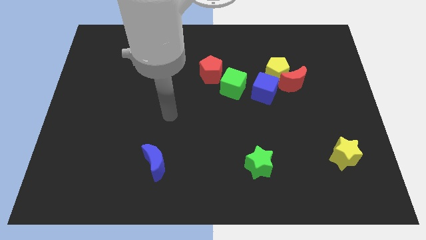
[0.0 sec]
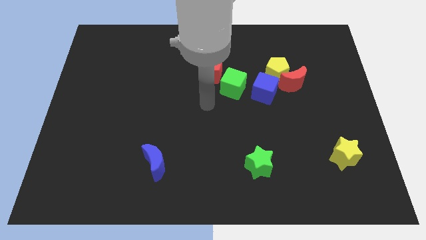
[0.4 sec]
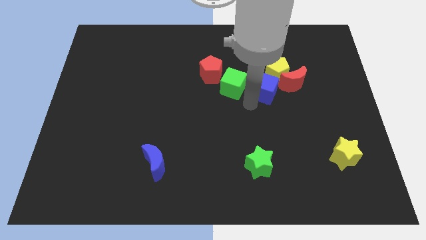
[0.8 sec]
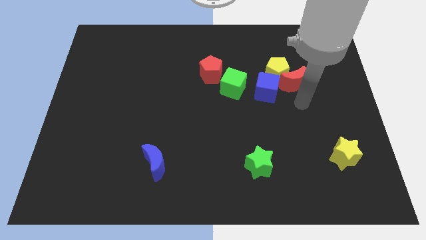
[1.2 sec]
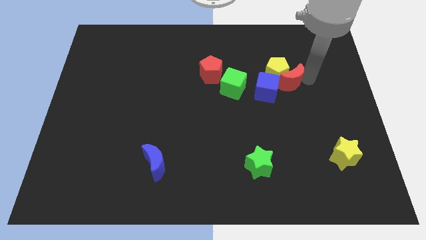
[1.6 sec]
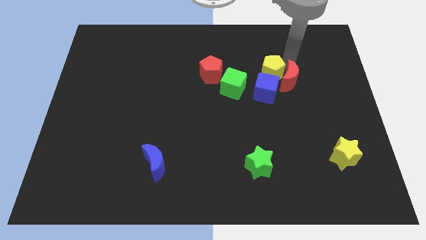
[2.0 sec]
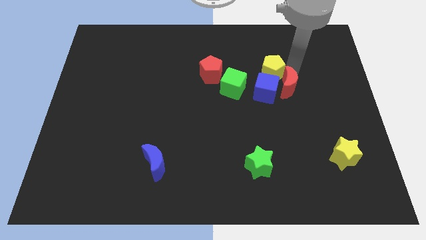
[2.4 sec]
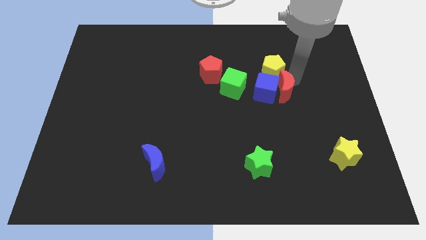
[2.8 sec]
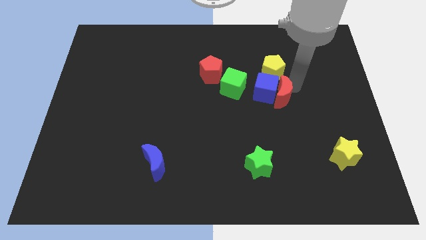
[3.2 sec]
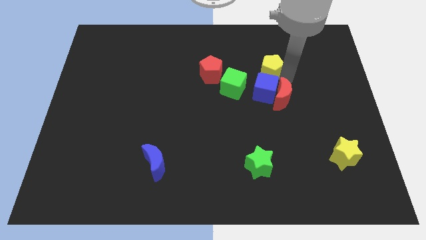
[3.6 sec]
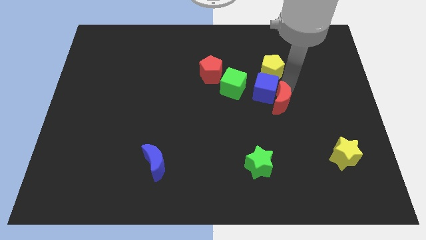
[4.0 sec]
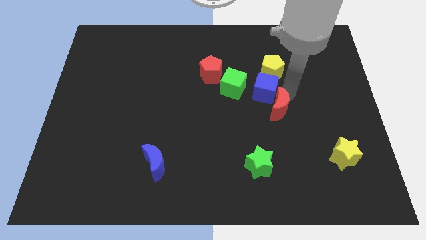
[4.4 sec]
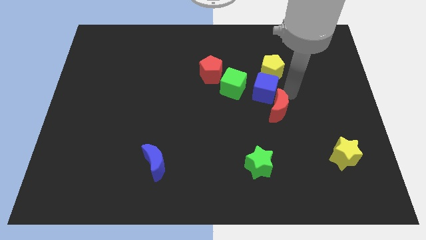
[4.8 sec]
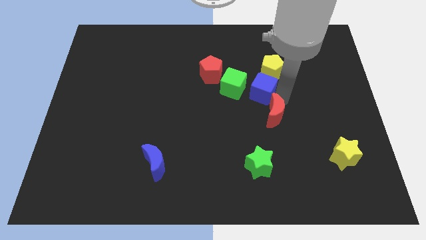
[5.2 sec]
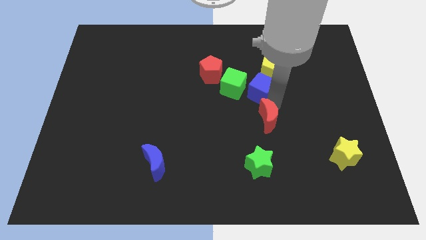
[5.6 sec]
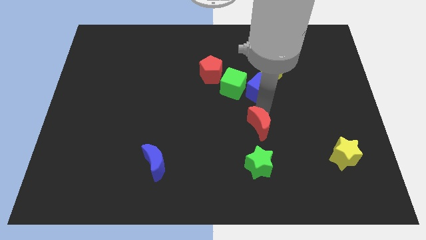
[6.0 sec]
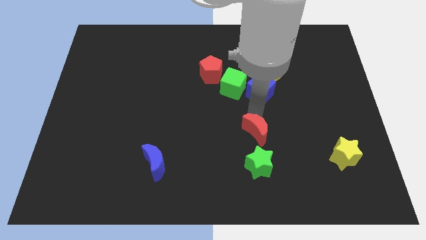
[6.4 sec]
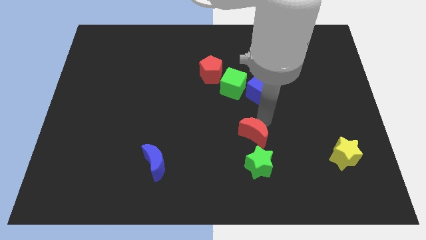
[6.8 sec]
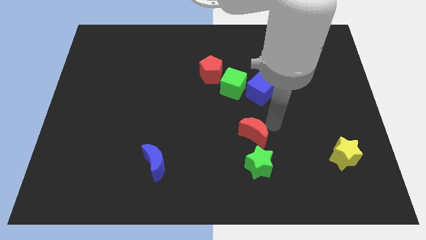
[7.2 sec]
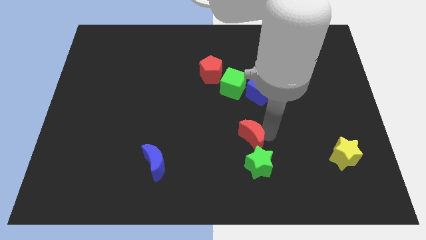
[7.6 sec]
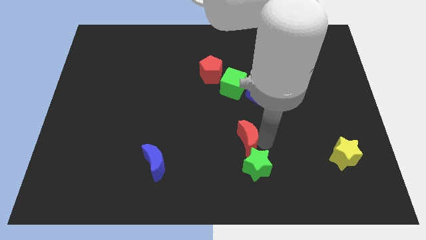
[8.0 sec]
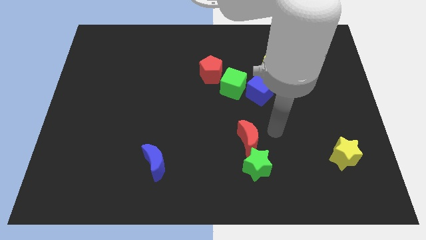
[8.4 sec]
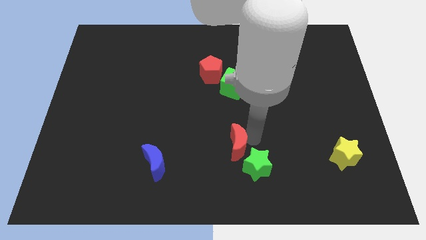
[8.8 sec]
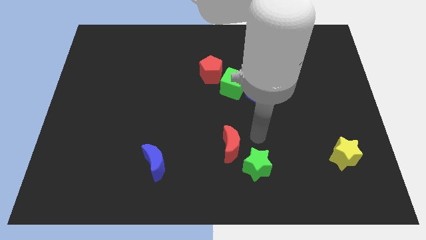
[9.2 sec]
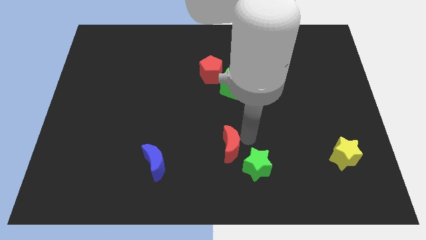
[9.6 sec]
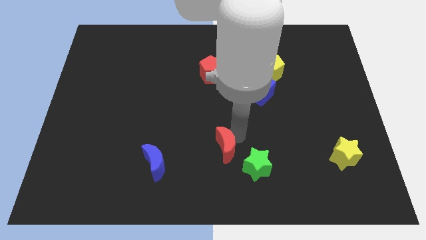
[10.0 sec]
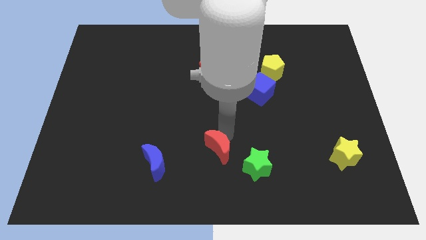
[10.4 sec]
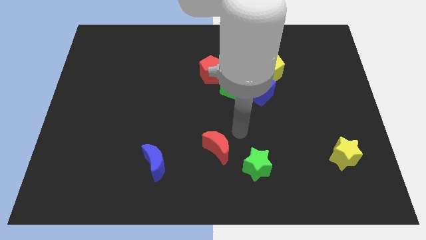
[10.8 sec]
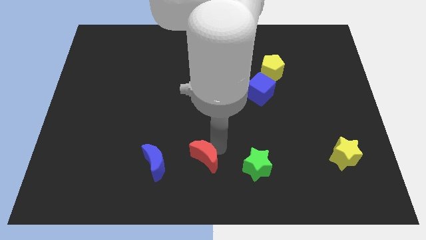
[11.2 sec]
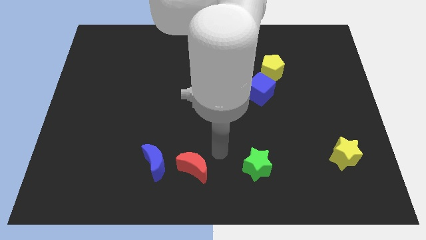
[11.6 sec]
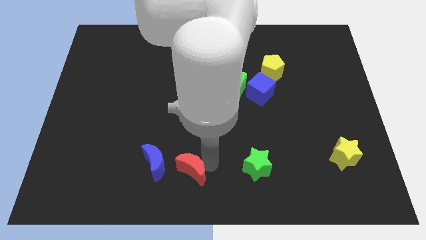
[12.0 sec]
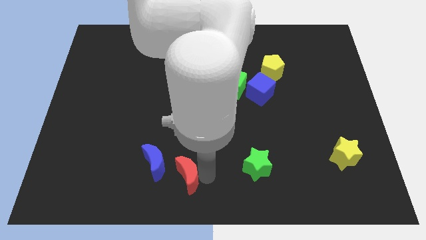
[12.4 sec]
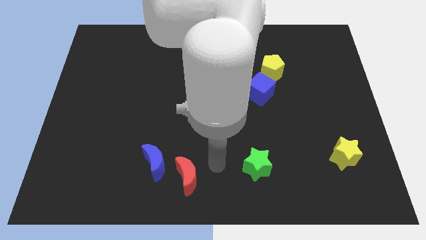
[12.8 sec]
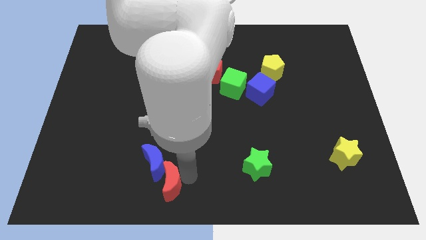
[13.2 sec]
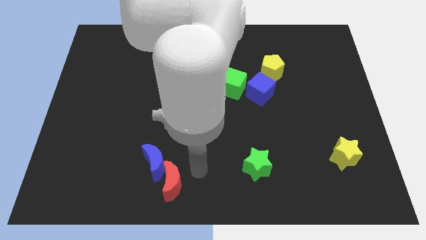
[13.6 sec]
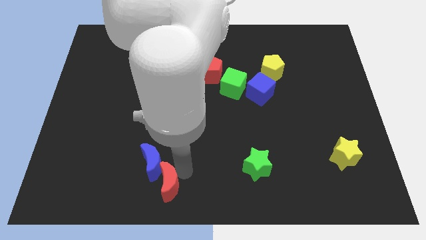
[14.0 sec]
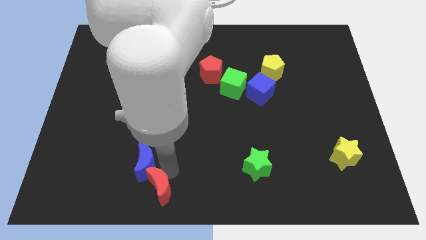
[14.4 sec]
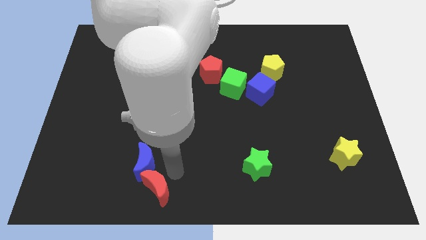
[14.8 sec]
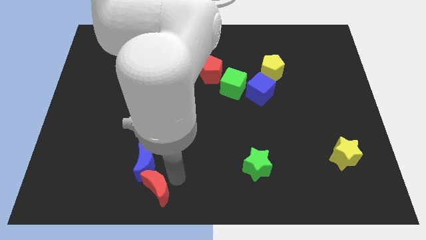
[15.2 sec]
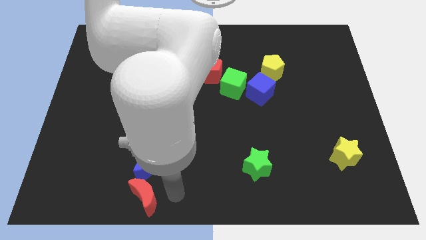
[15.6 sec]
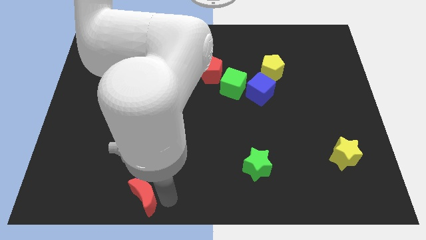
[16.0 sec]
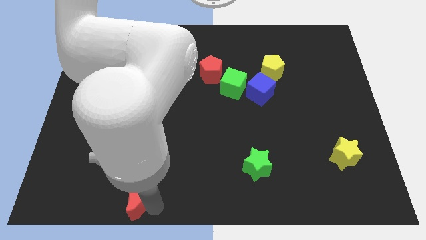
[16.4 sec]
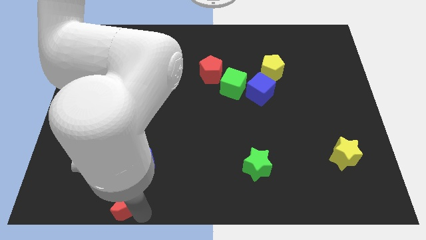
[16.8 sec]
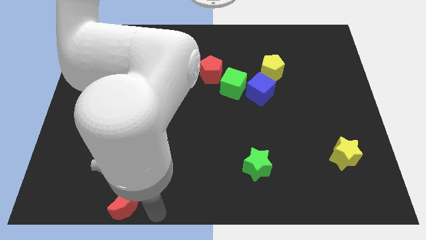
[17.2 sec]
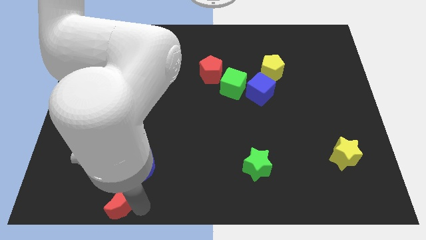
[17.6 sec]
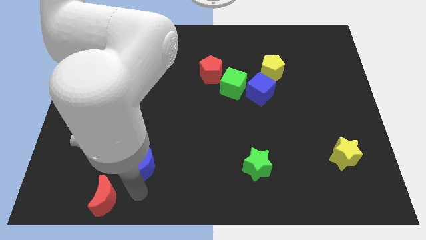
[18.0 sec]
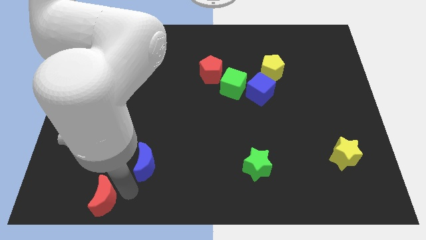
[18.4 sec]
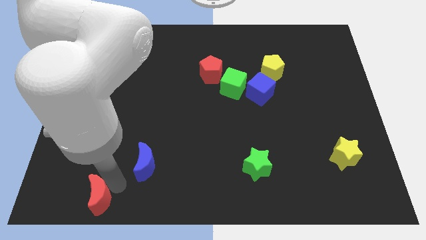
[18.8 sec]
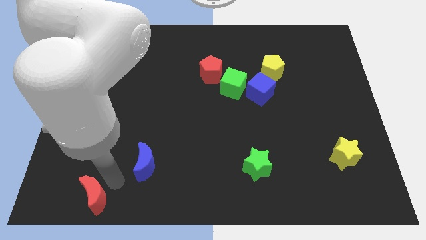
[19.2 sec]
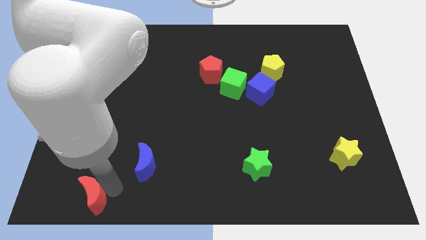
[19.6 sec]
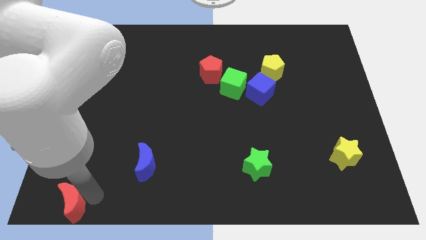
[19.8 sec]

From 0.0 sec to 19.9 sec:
put the red moon to the lower left corner

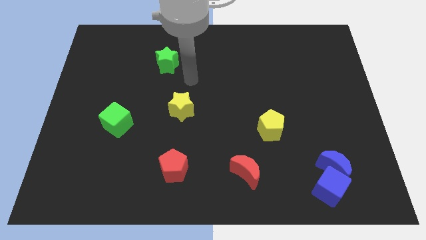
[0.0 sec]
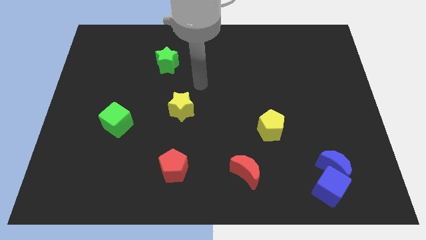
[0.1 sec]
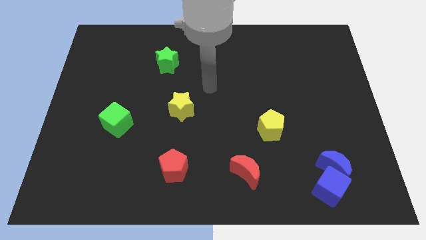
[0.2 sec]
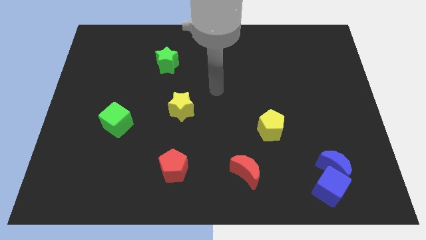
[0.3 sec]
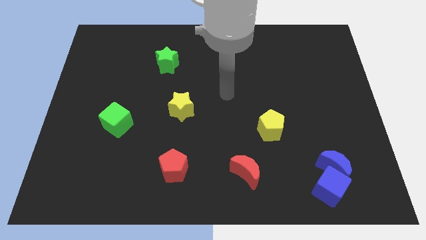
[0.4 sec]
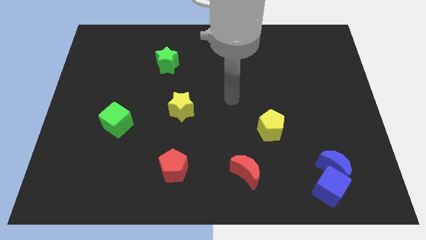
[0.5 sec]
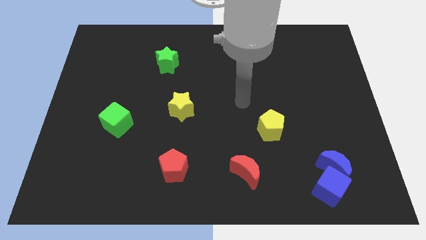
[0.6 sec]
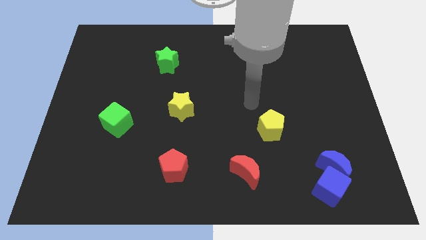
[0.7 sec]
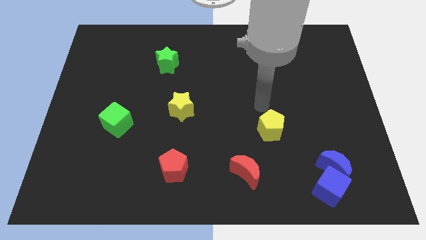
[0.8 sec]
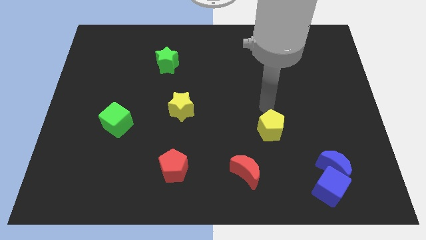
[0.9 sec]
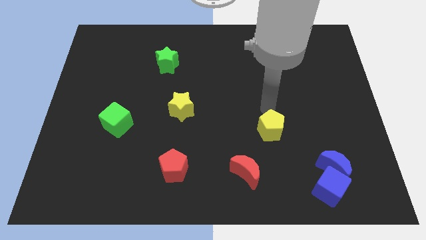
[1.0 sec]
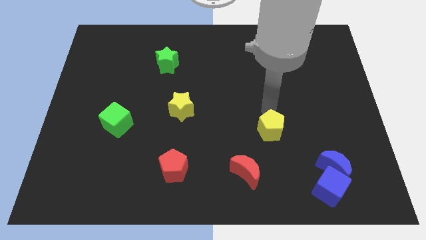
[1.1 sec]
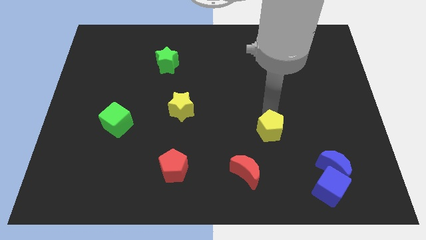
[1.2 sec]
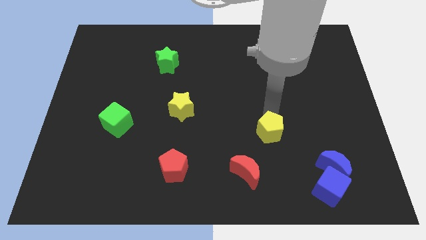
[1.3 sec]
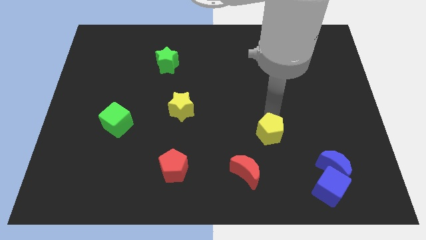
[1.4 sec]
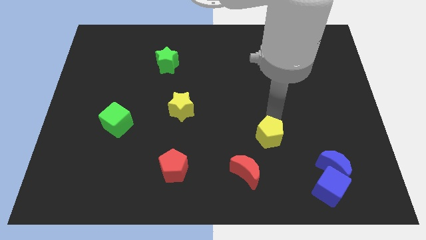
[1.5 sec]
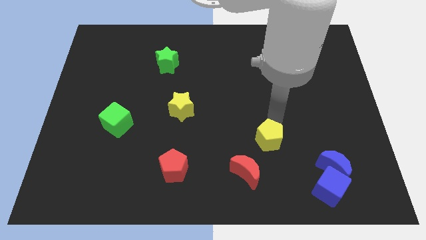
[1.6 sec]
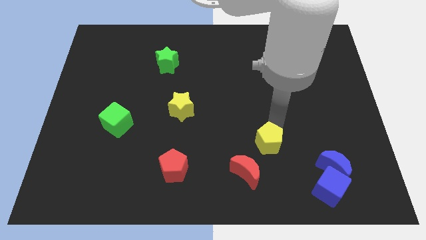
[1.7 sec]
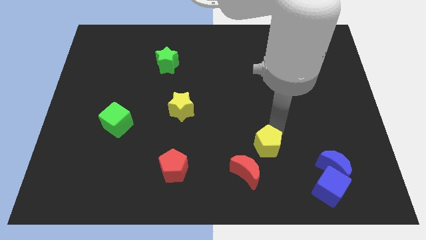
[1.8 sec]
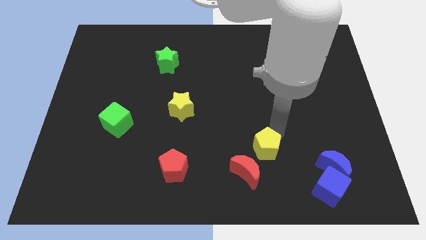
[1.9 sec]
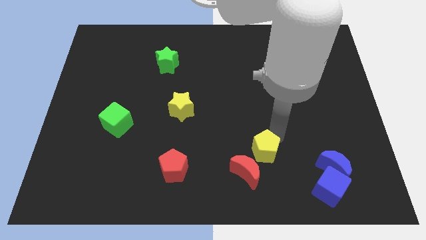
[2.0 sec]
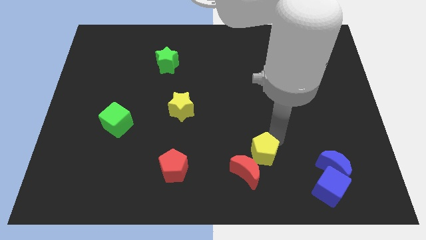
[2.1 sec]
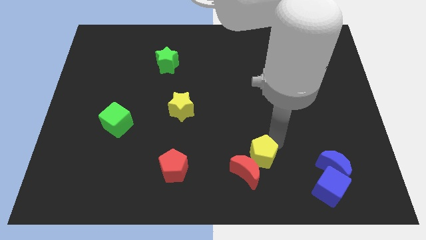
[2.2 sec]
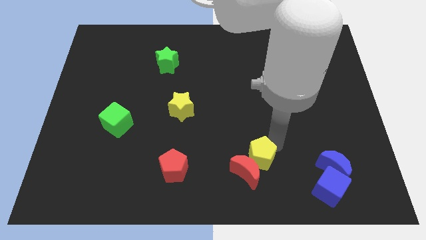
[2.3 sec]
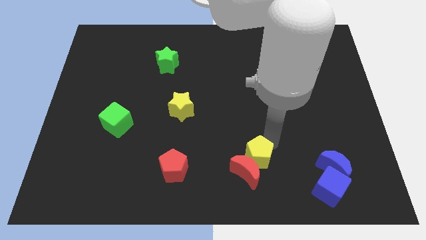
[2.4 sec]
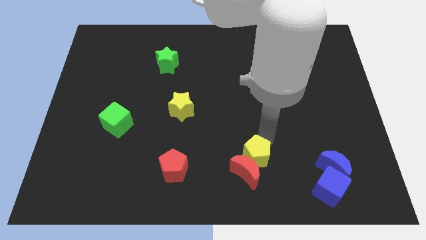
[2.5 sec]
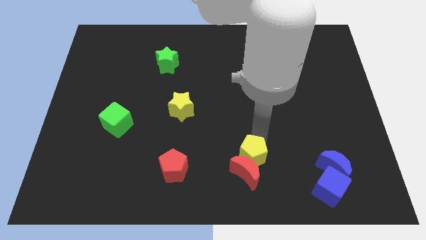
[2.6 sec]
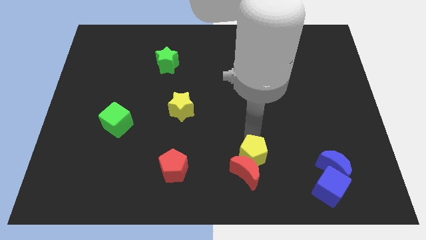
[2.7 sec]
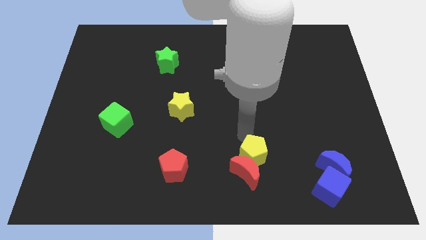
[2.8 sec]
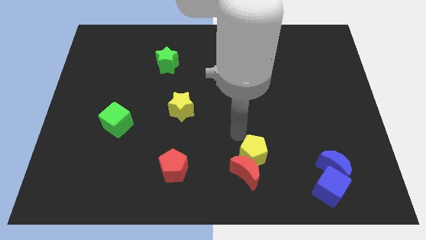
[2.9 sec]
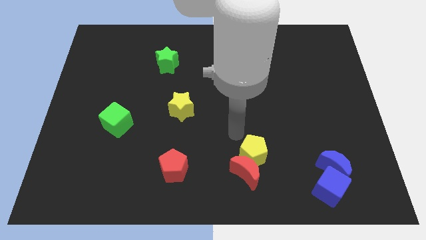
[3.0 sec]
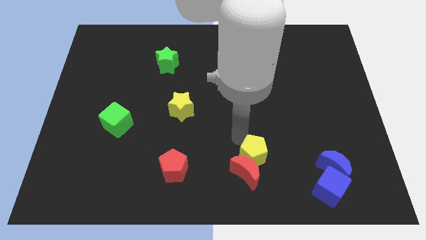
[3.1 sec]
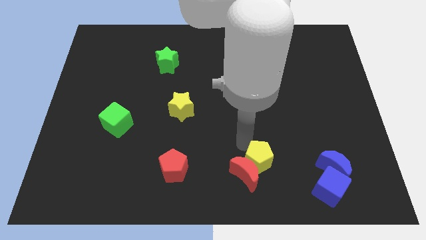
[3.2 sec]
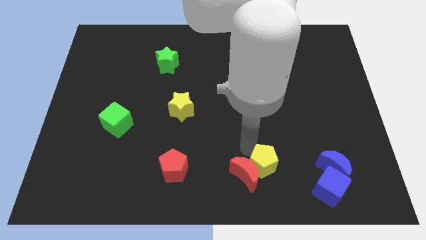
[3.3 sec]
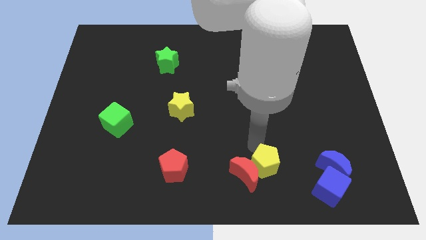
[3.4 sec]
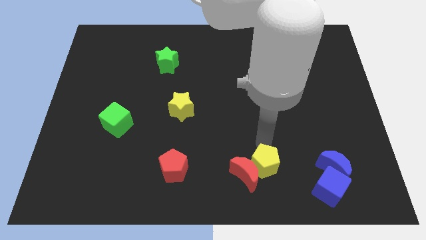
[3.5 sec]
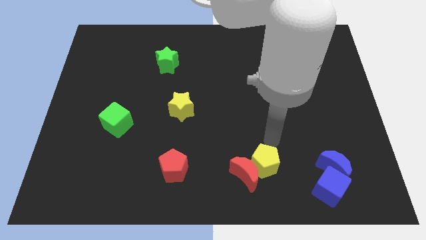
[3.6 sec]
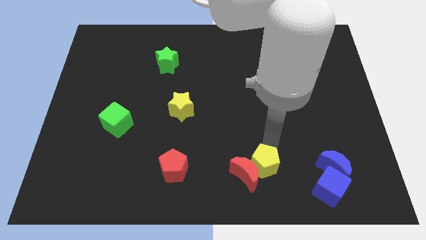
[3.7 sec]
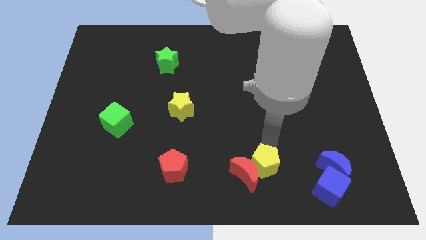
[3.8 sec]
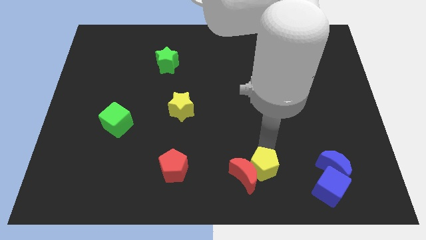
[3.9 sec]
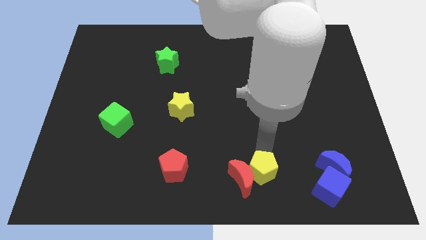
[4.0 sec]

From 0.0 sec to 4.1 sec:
put the yellow pentagon to the bottom
